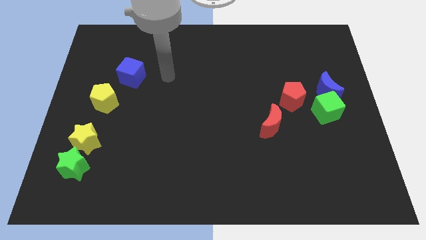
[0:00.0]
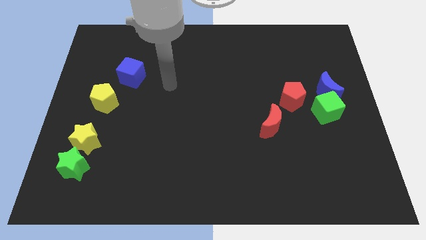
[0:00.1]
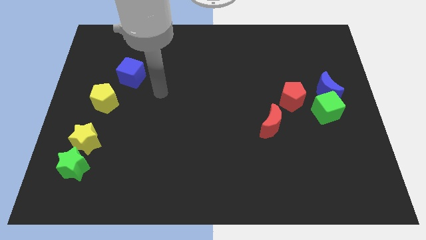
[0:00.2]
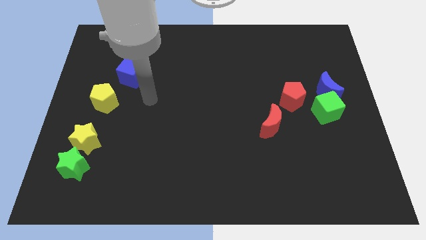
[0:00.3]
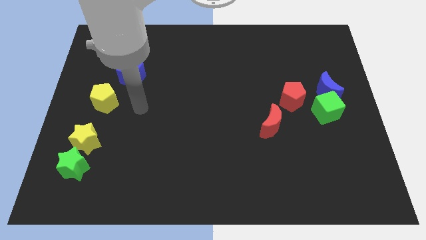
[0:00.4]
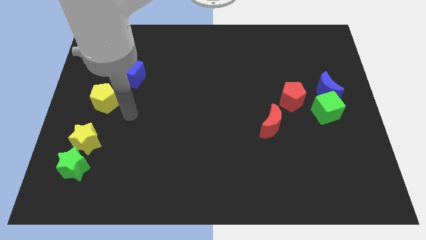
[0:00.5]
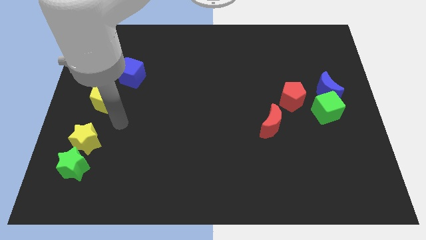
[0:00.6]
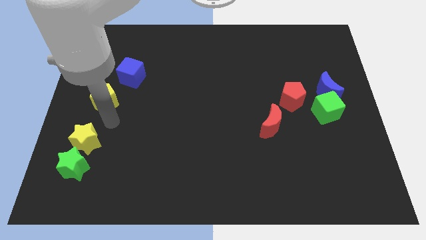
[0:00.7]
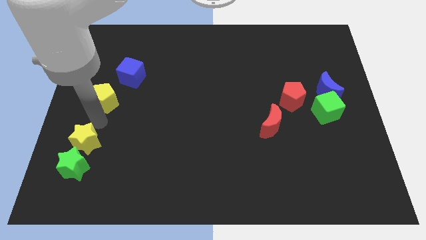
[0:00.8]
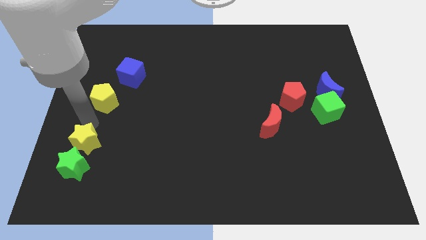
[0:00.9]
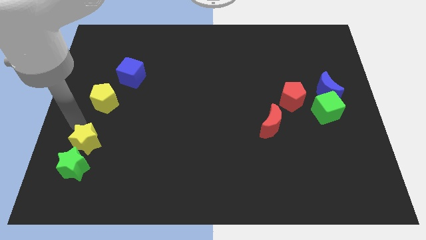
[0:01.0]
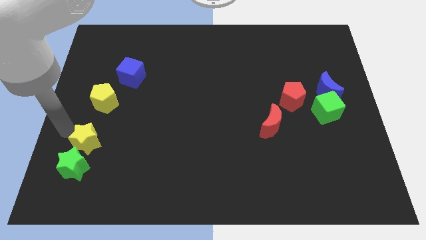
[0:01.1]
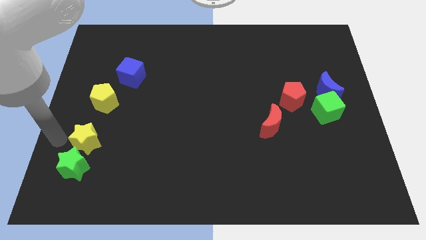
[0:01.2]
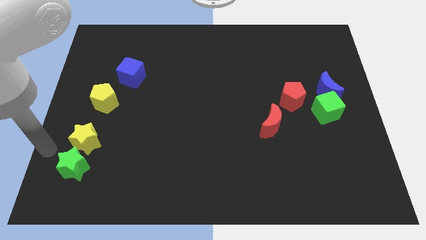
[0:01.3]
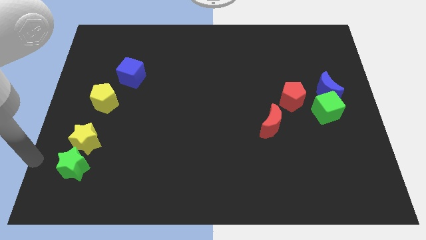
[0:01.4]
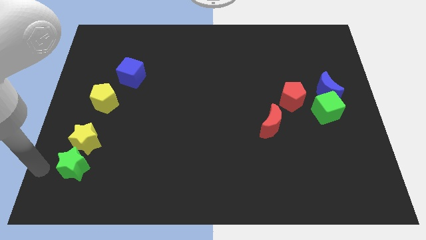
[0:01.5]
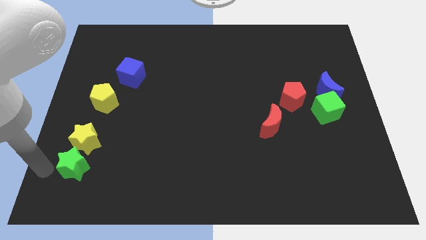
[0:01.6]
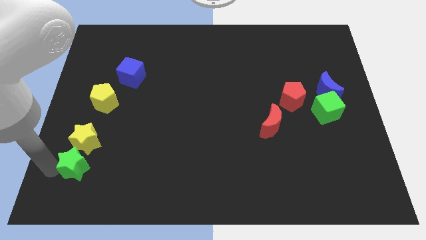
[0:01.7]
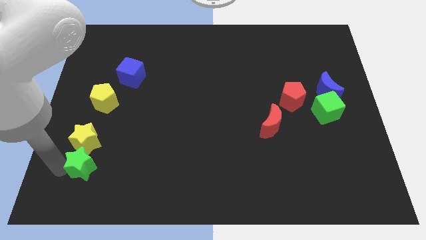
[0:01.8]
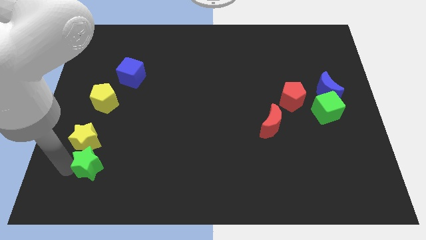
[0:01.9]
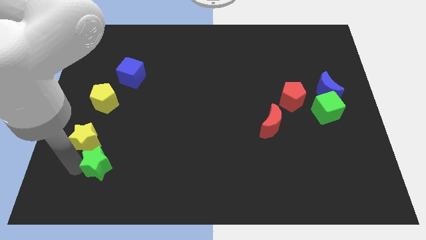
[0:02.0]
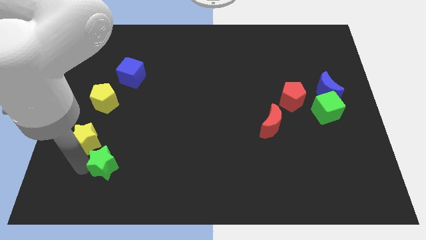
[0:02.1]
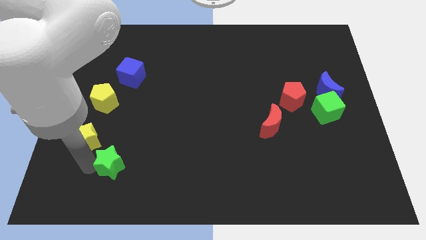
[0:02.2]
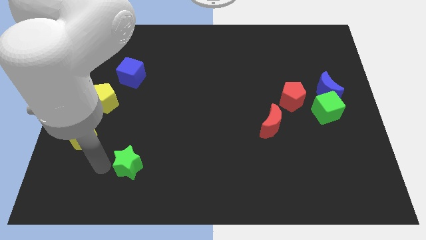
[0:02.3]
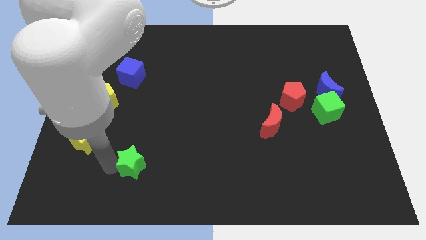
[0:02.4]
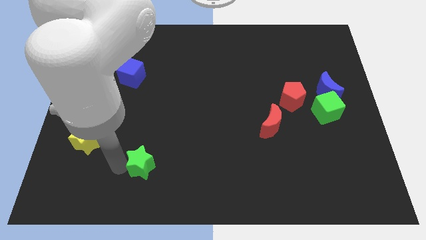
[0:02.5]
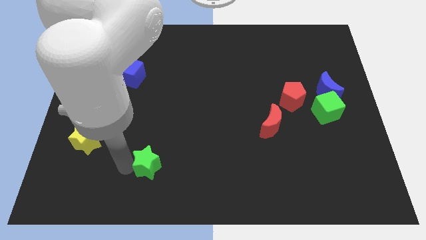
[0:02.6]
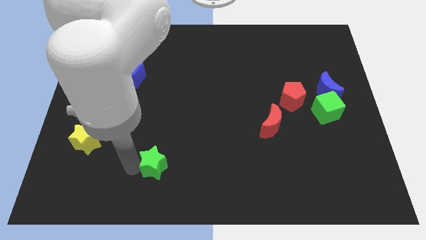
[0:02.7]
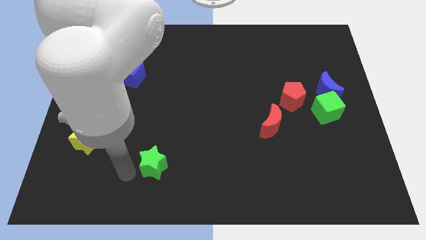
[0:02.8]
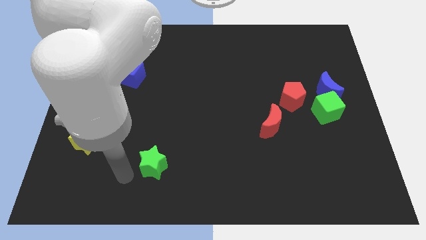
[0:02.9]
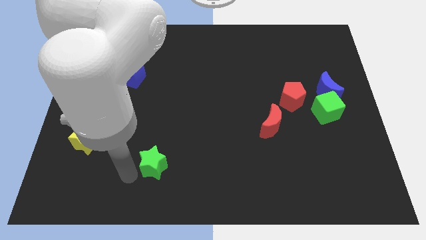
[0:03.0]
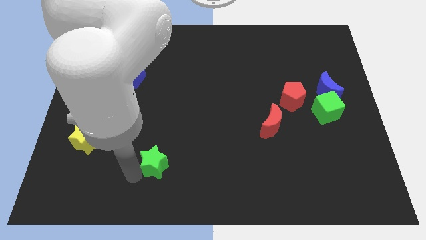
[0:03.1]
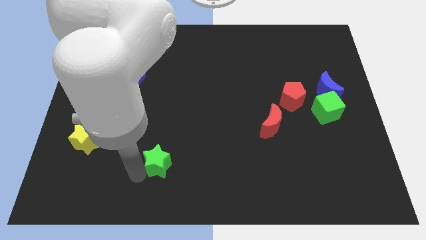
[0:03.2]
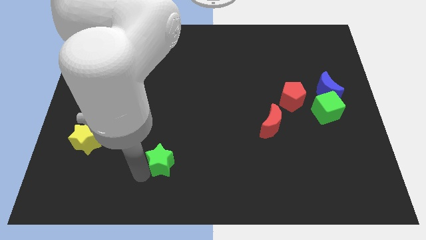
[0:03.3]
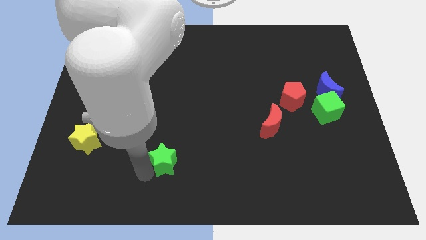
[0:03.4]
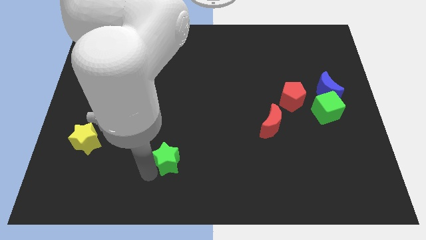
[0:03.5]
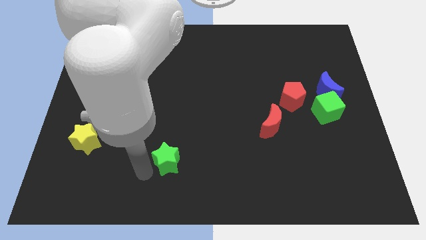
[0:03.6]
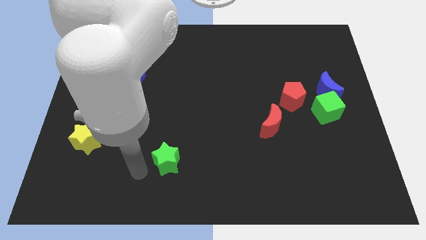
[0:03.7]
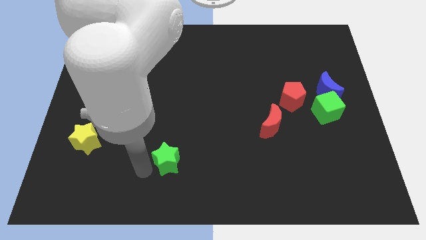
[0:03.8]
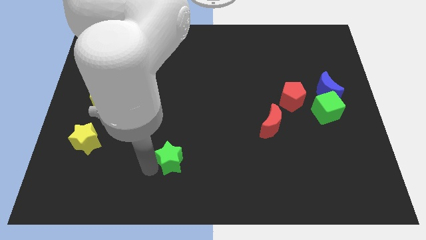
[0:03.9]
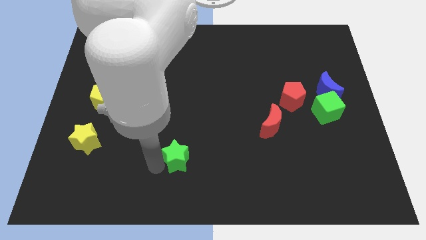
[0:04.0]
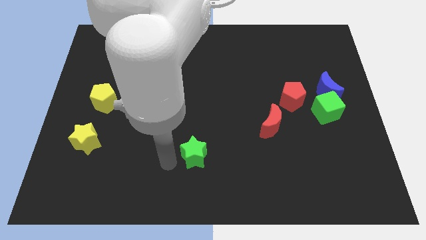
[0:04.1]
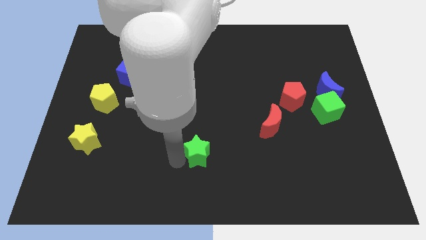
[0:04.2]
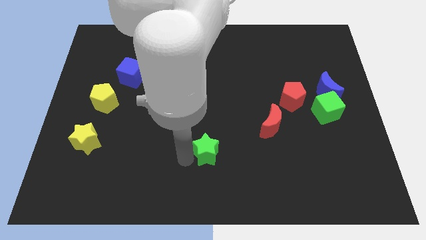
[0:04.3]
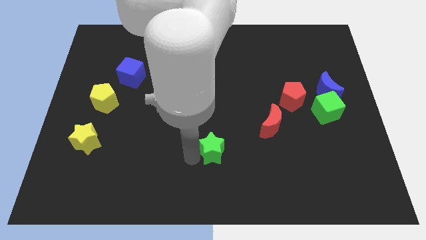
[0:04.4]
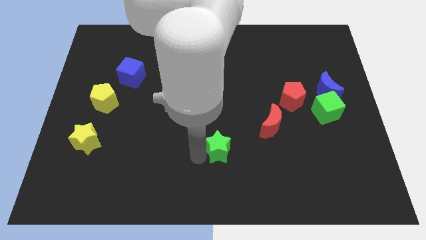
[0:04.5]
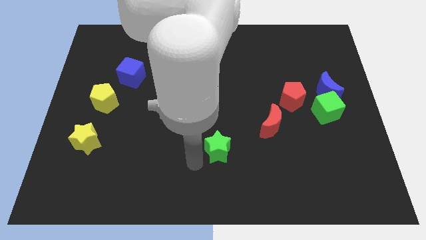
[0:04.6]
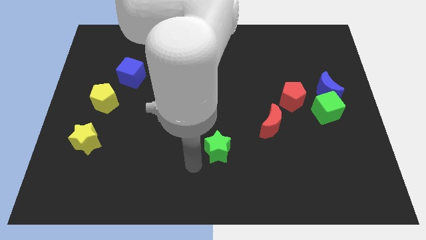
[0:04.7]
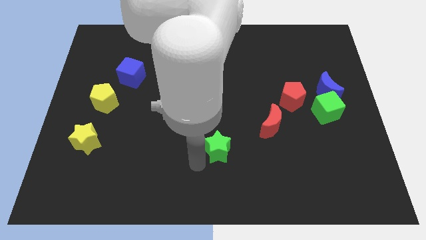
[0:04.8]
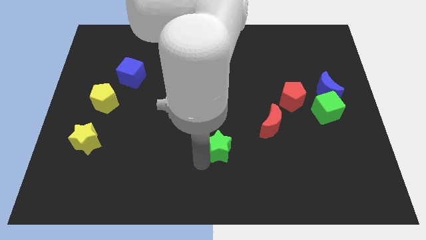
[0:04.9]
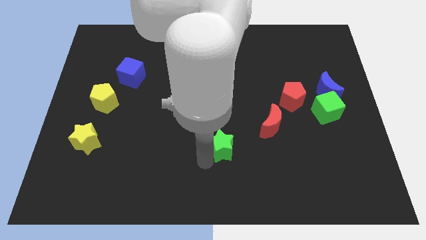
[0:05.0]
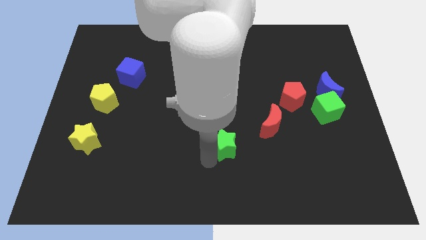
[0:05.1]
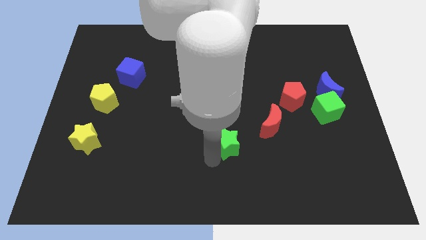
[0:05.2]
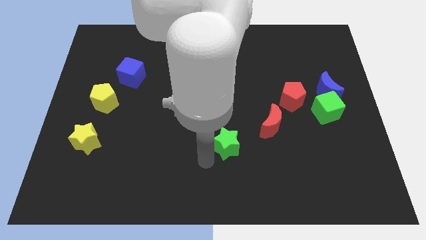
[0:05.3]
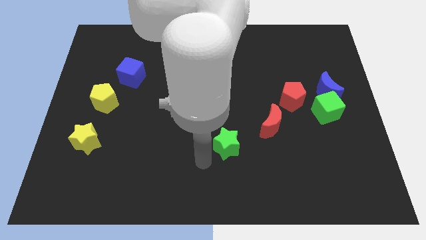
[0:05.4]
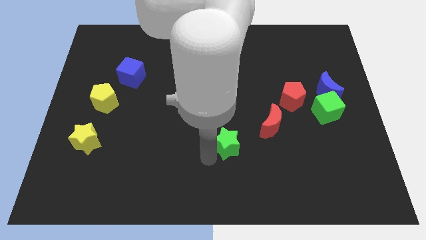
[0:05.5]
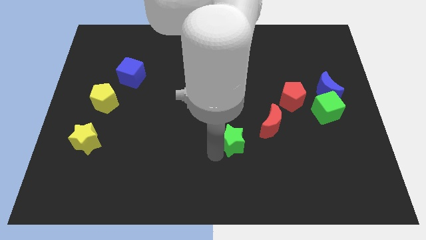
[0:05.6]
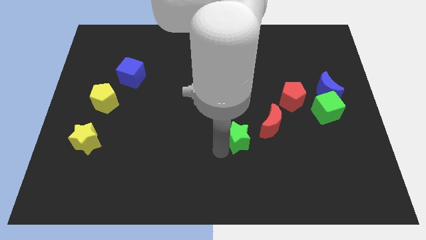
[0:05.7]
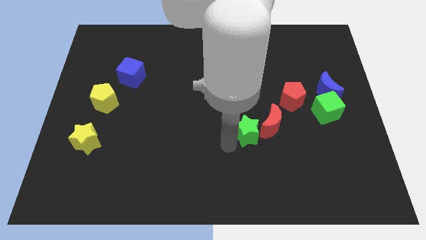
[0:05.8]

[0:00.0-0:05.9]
move the green star to the red moon

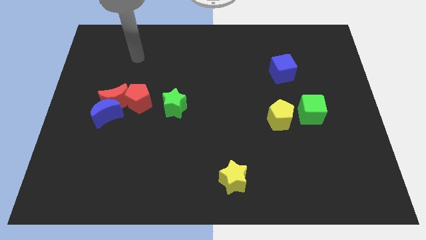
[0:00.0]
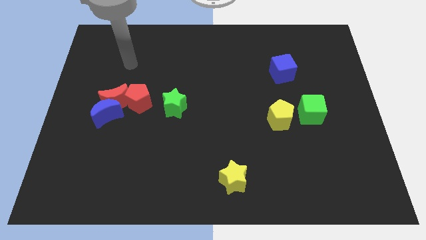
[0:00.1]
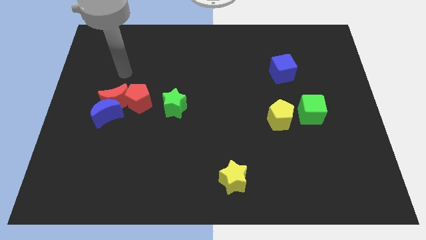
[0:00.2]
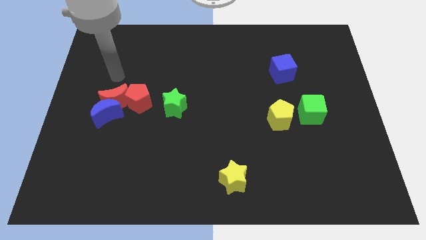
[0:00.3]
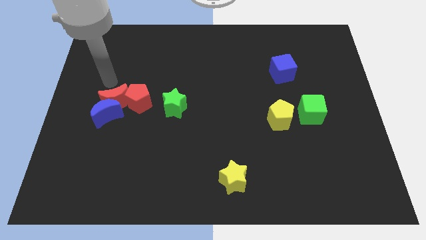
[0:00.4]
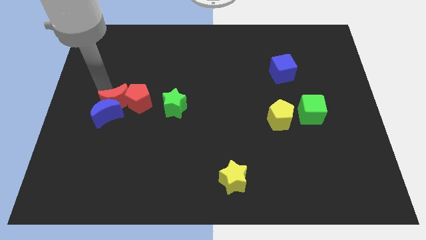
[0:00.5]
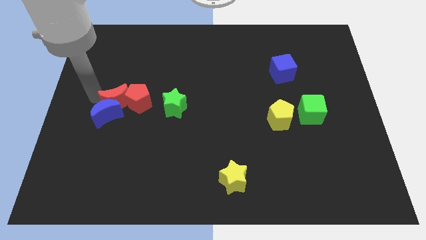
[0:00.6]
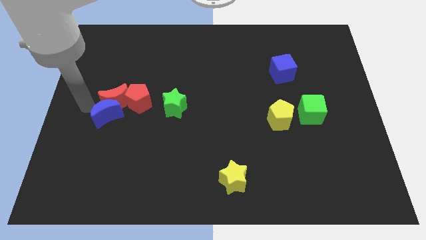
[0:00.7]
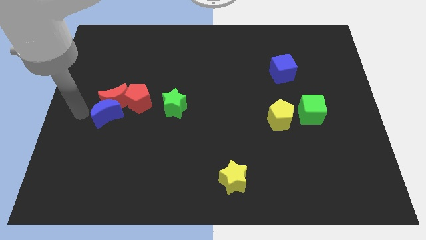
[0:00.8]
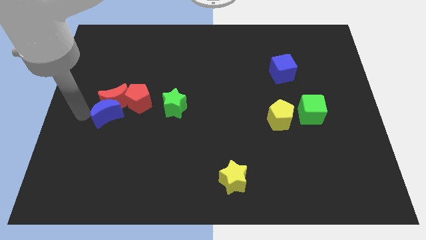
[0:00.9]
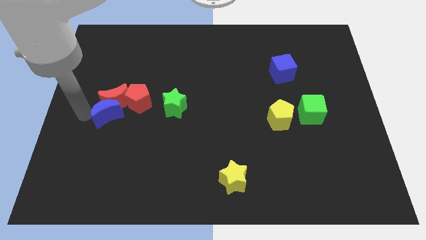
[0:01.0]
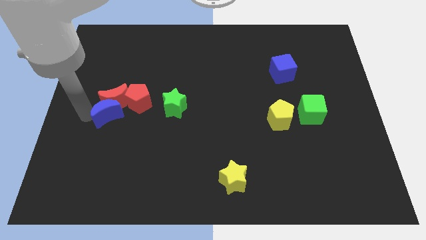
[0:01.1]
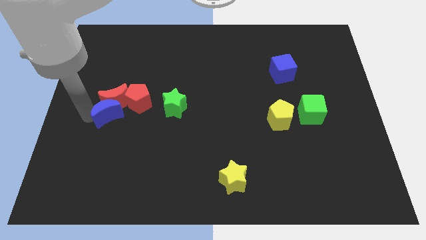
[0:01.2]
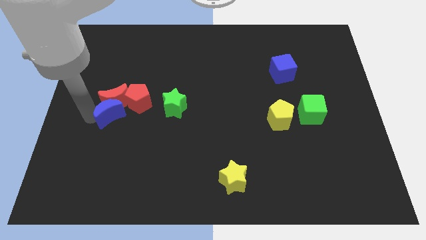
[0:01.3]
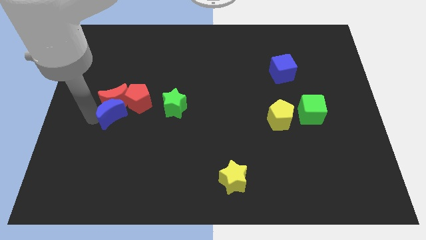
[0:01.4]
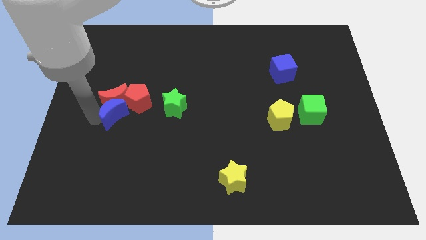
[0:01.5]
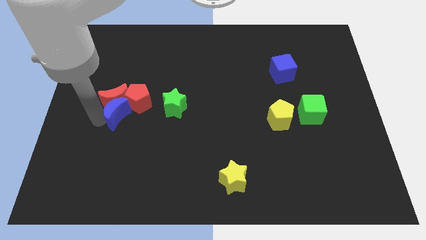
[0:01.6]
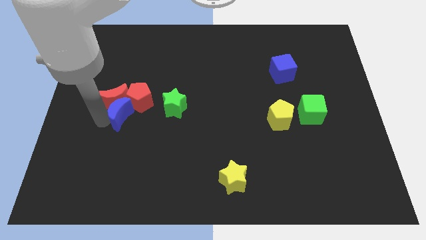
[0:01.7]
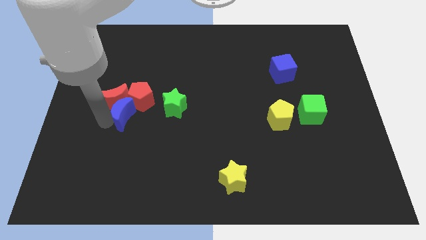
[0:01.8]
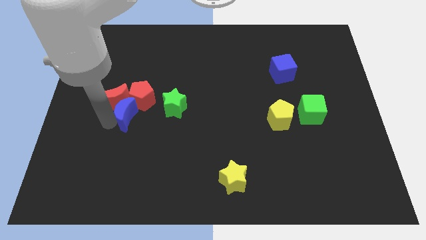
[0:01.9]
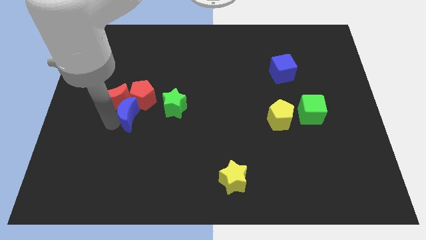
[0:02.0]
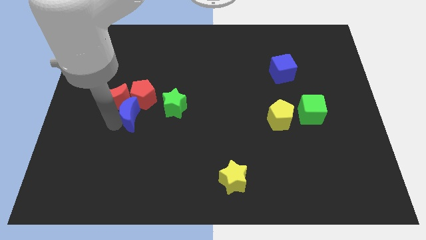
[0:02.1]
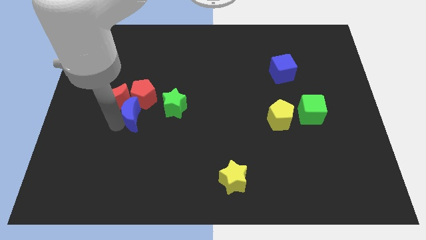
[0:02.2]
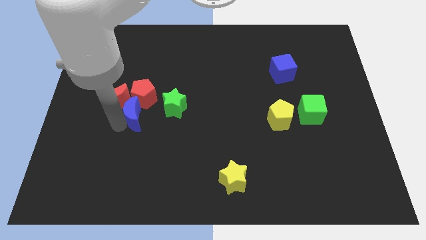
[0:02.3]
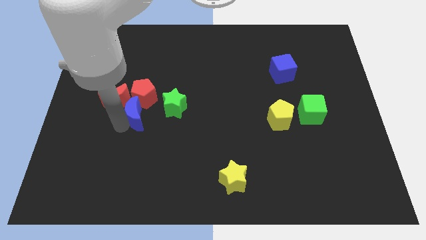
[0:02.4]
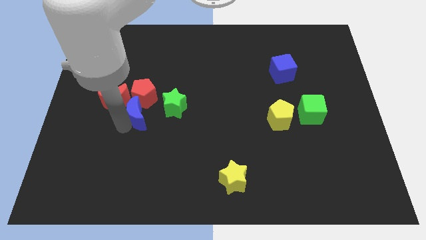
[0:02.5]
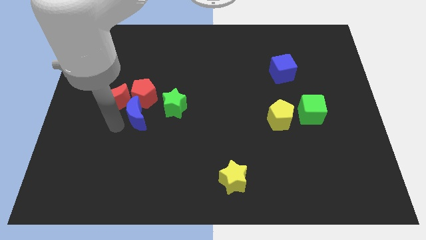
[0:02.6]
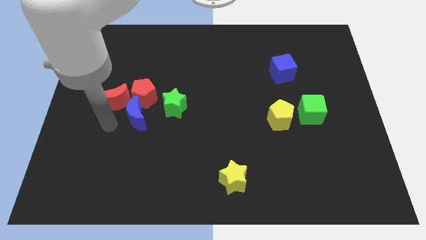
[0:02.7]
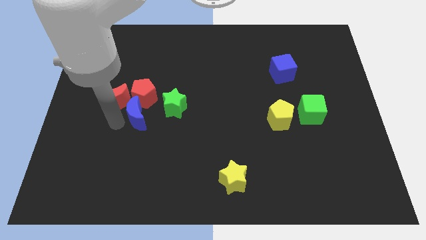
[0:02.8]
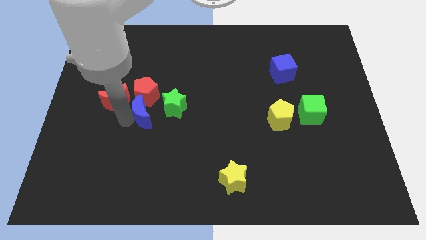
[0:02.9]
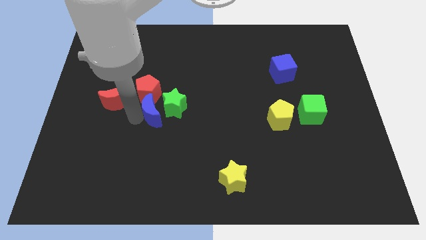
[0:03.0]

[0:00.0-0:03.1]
slide the blue moon to the green star
